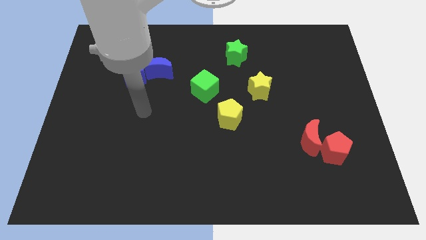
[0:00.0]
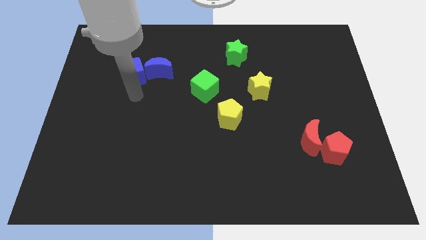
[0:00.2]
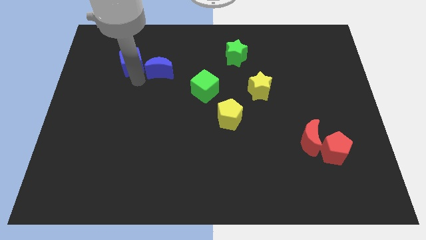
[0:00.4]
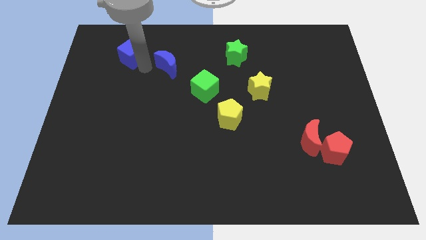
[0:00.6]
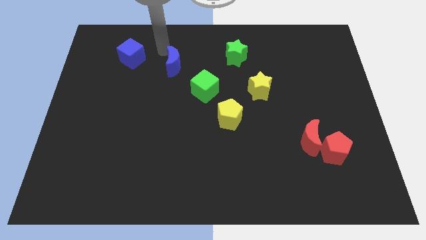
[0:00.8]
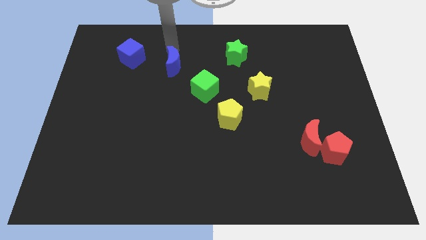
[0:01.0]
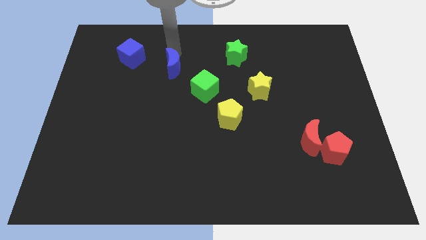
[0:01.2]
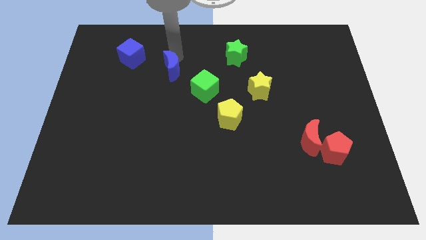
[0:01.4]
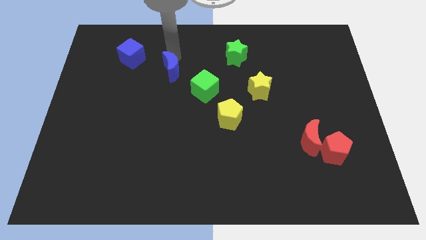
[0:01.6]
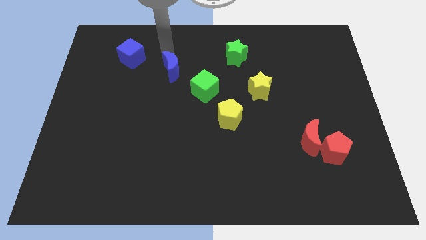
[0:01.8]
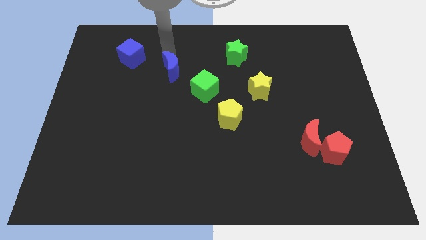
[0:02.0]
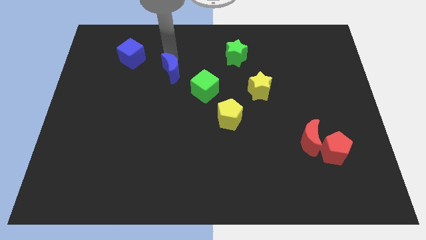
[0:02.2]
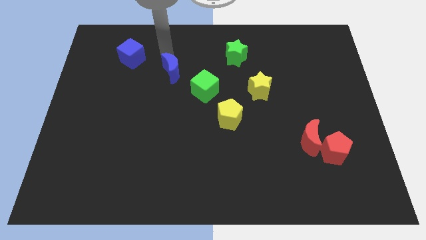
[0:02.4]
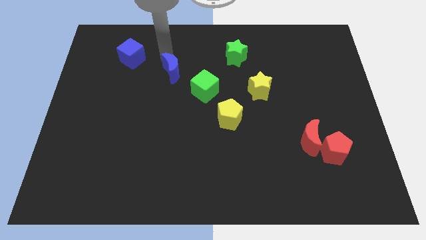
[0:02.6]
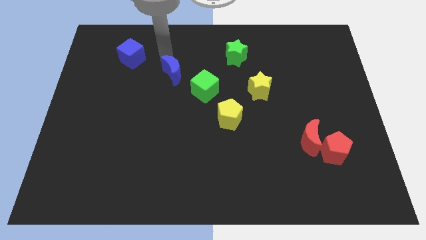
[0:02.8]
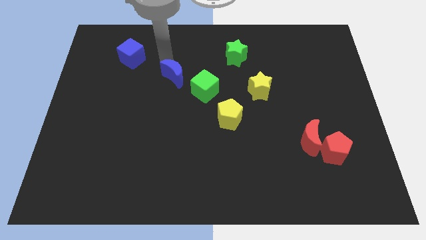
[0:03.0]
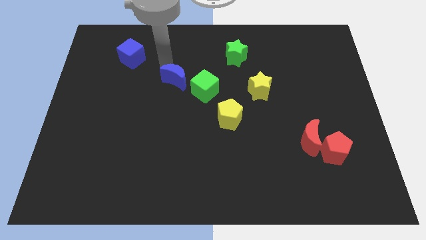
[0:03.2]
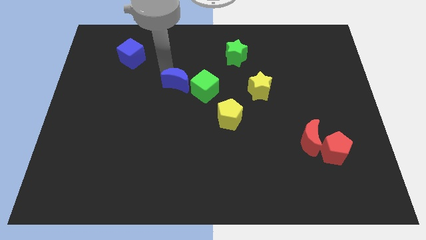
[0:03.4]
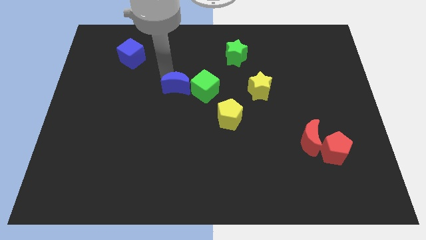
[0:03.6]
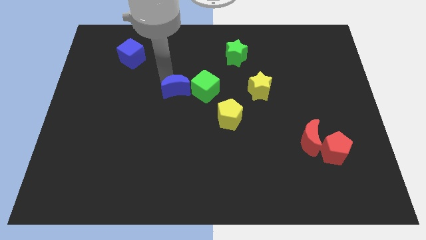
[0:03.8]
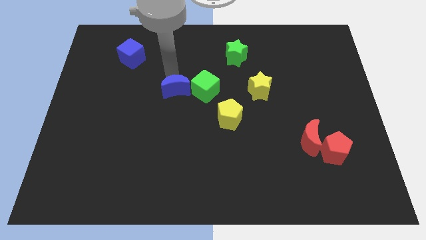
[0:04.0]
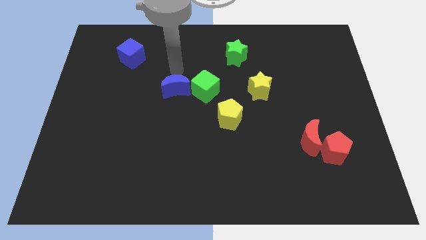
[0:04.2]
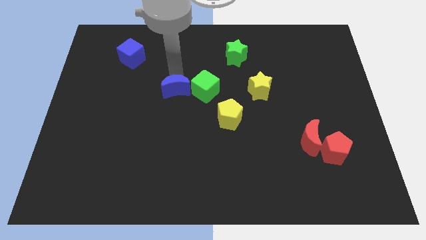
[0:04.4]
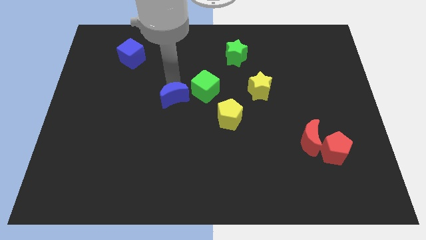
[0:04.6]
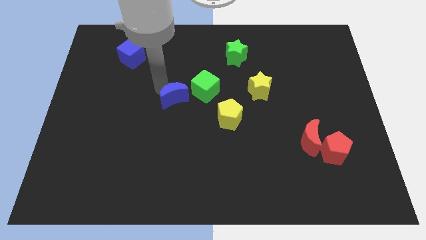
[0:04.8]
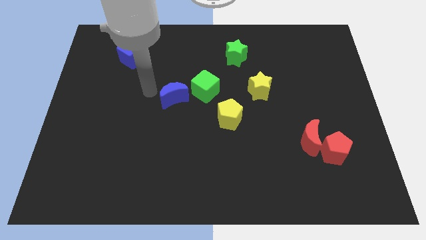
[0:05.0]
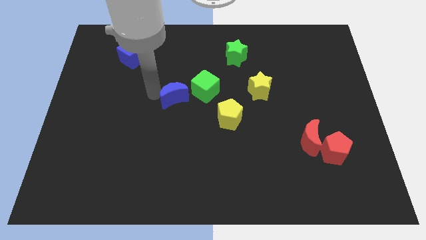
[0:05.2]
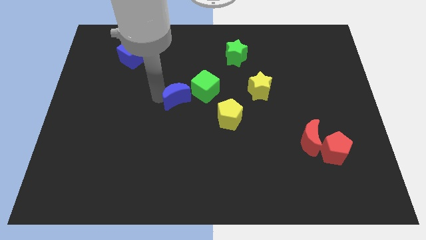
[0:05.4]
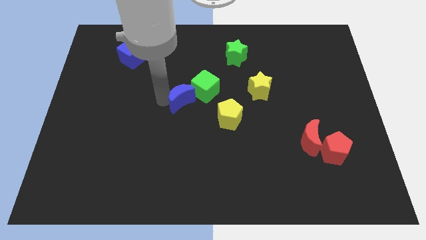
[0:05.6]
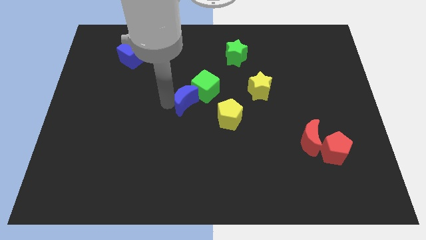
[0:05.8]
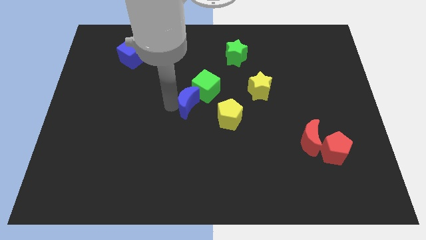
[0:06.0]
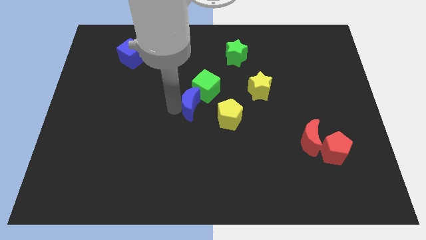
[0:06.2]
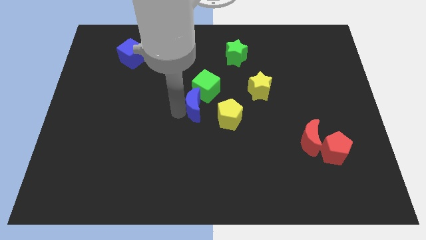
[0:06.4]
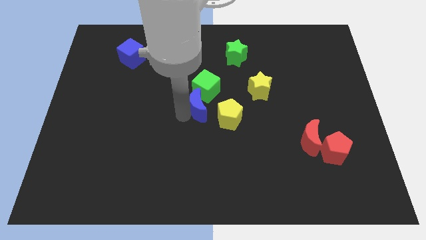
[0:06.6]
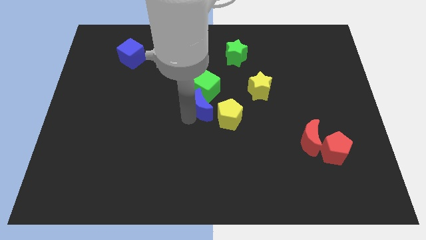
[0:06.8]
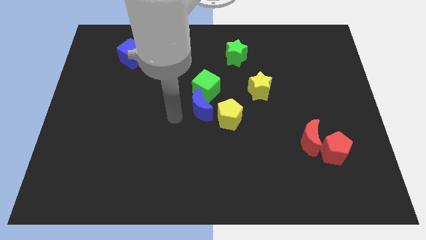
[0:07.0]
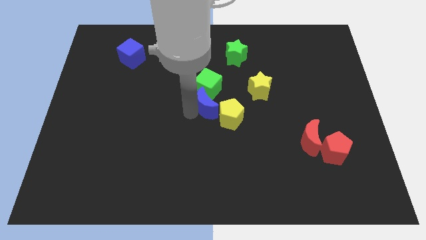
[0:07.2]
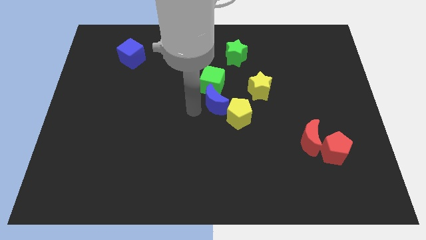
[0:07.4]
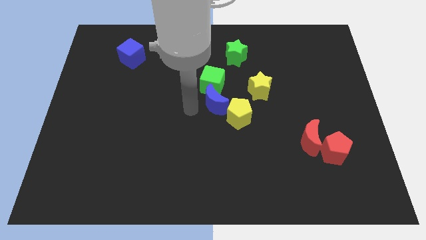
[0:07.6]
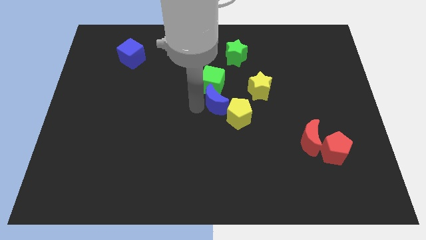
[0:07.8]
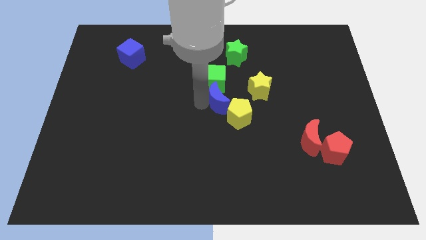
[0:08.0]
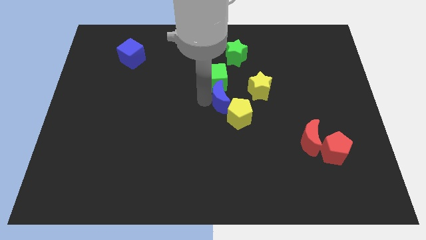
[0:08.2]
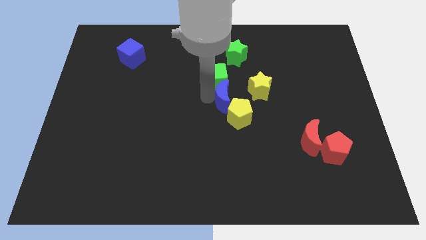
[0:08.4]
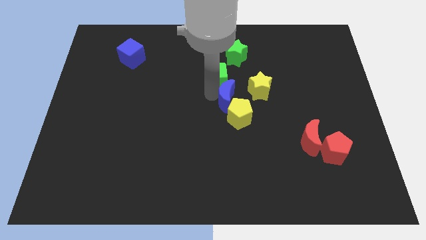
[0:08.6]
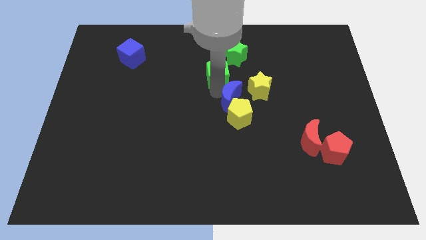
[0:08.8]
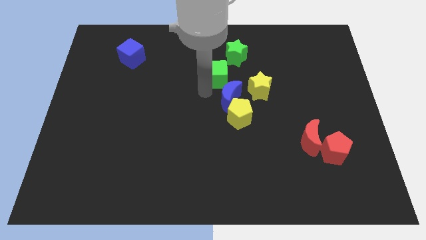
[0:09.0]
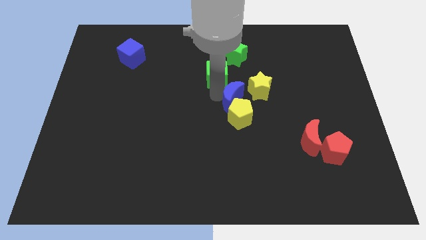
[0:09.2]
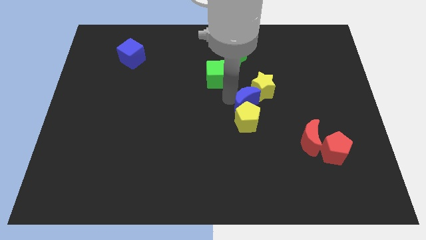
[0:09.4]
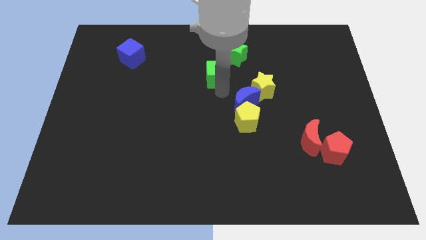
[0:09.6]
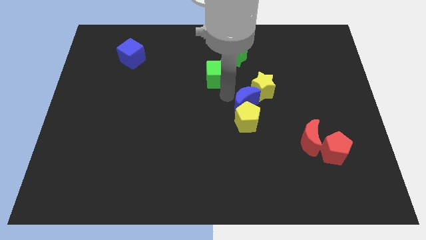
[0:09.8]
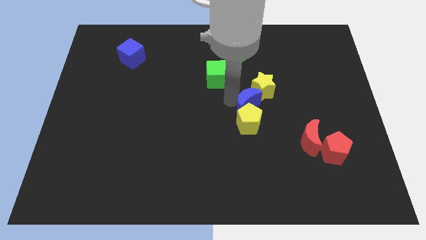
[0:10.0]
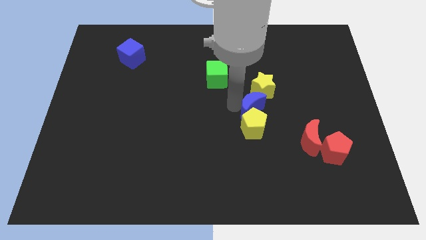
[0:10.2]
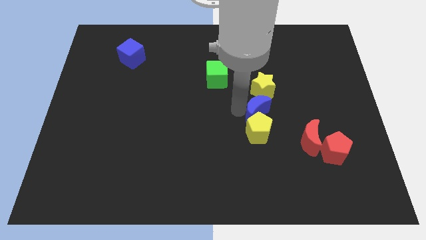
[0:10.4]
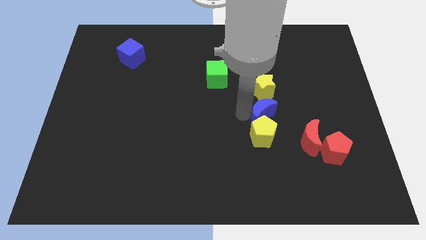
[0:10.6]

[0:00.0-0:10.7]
push the blue moon to the top left side of the red moon
